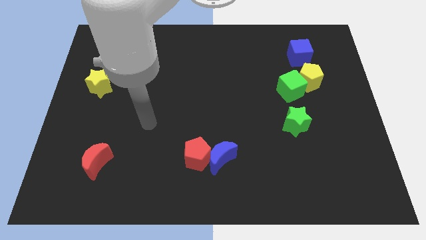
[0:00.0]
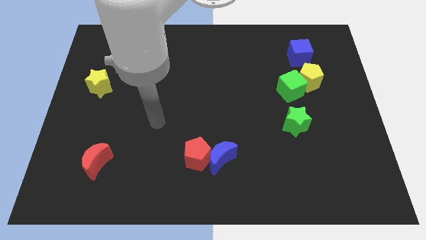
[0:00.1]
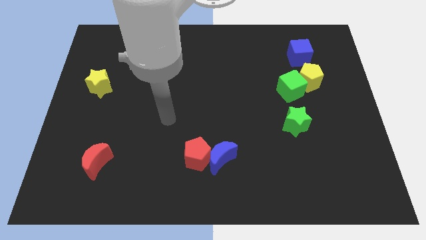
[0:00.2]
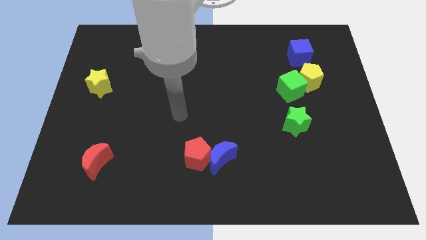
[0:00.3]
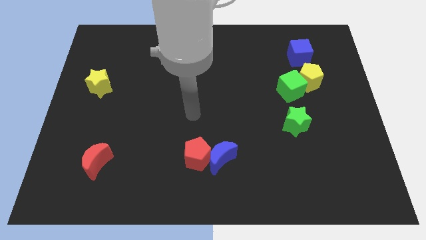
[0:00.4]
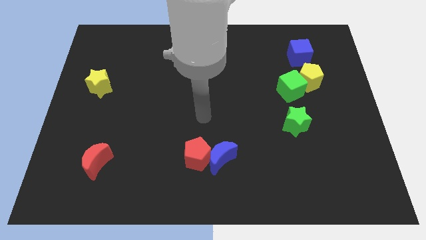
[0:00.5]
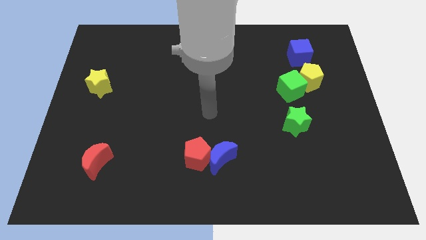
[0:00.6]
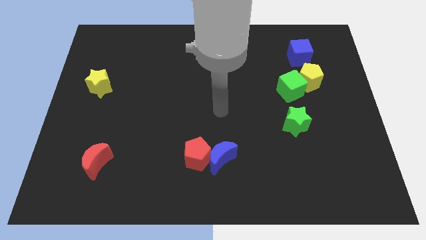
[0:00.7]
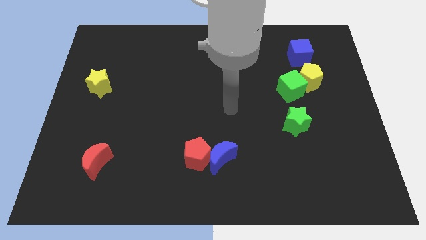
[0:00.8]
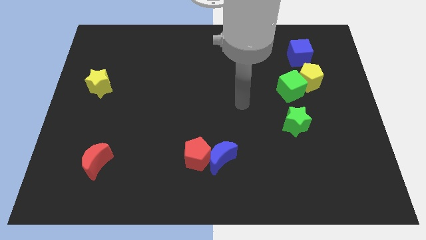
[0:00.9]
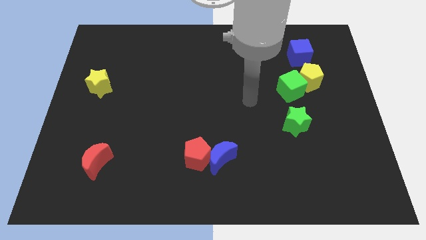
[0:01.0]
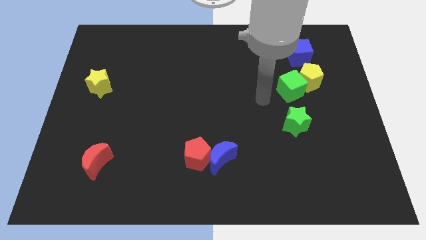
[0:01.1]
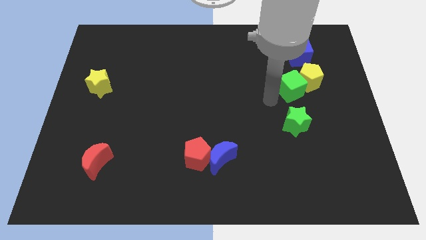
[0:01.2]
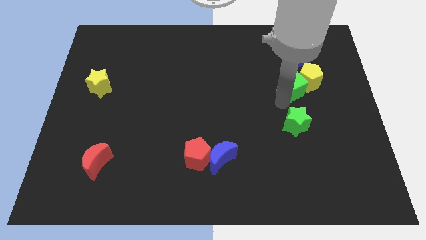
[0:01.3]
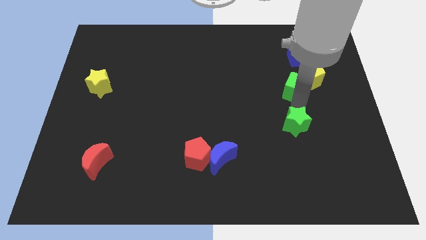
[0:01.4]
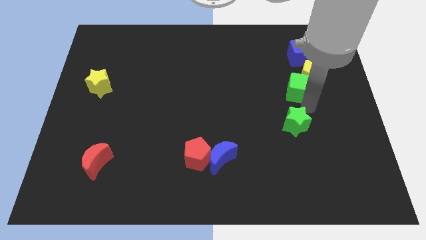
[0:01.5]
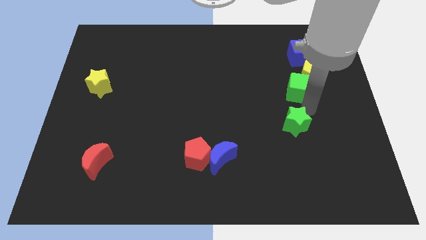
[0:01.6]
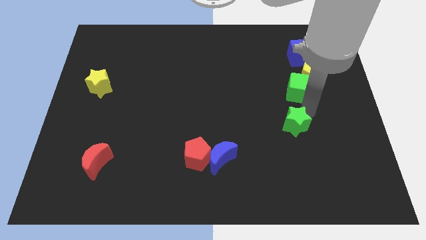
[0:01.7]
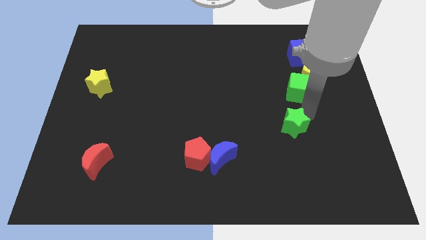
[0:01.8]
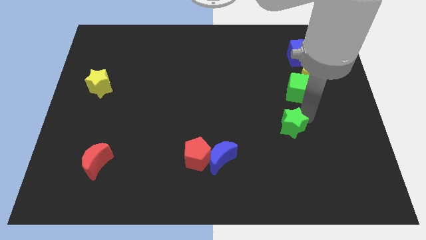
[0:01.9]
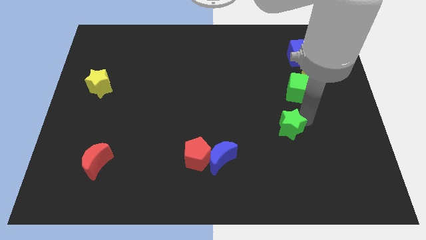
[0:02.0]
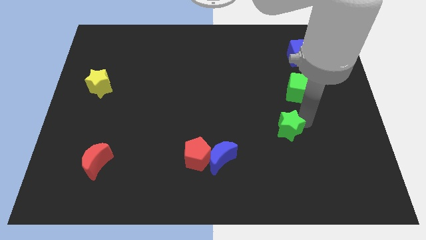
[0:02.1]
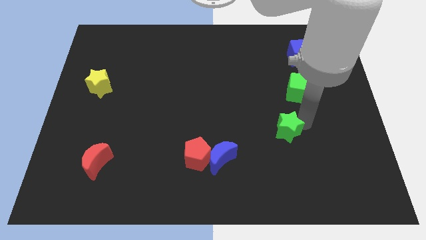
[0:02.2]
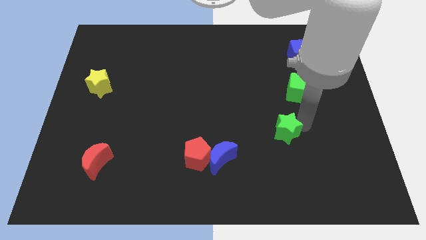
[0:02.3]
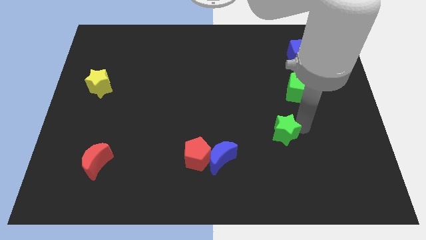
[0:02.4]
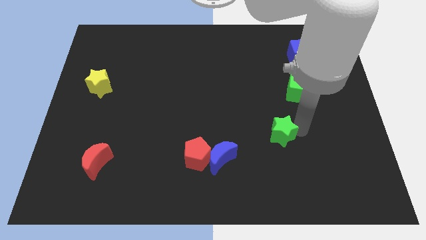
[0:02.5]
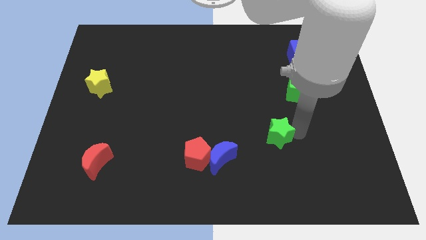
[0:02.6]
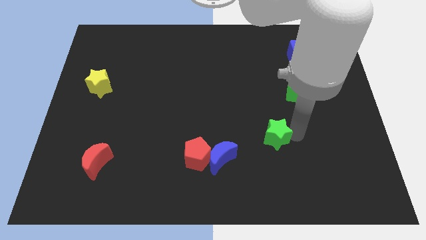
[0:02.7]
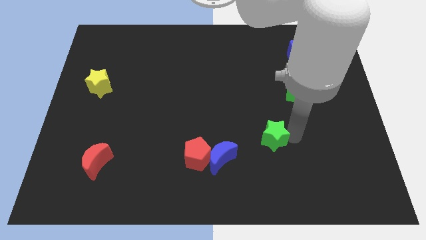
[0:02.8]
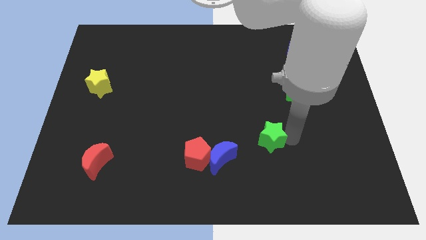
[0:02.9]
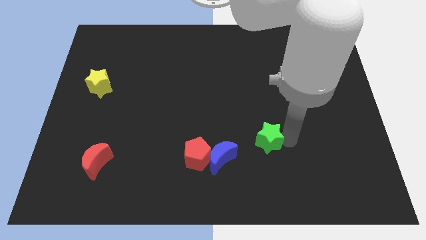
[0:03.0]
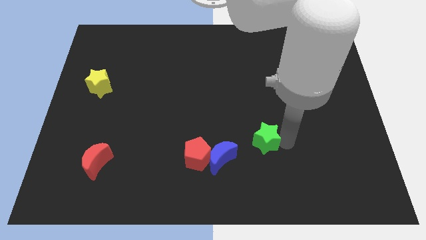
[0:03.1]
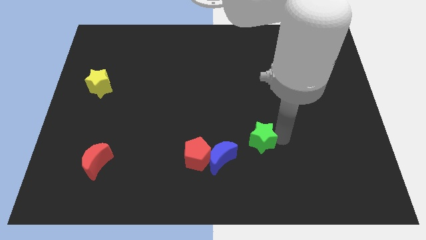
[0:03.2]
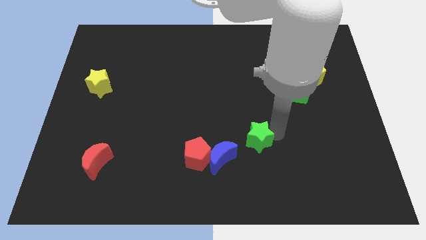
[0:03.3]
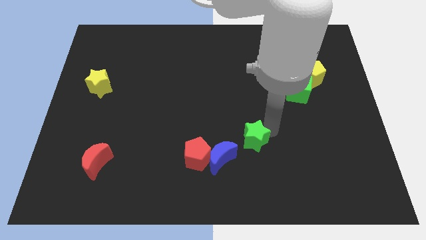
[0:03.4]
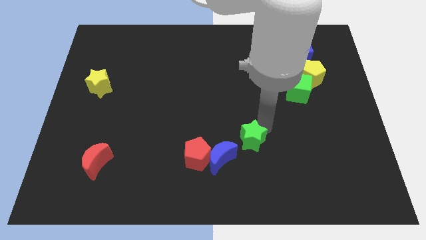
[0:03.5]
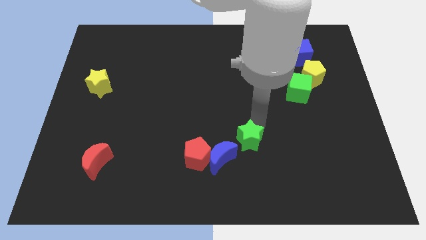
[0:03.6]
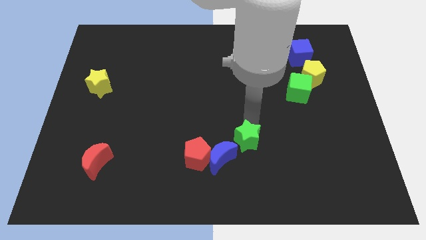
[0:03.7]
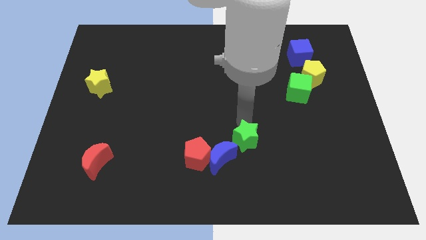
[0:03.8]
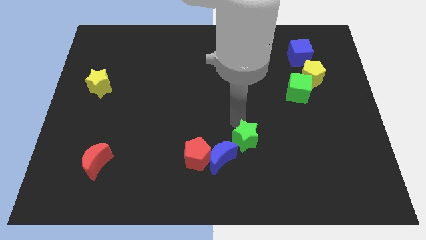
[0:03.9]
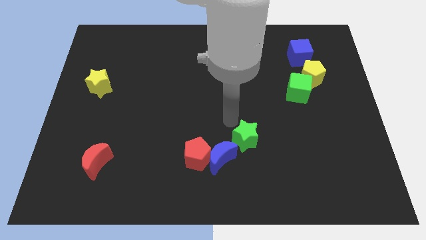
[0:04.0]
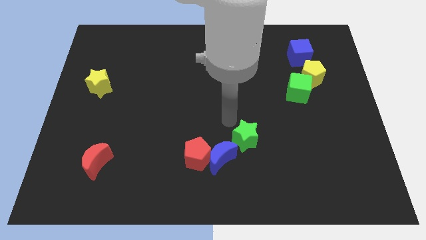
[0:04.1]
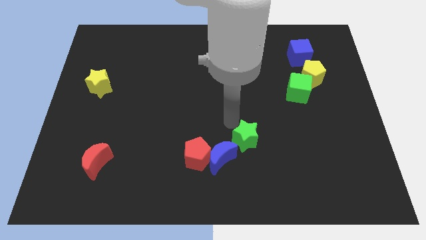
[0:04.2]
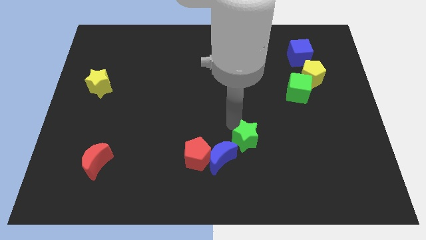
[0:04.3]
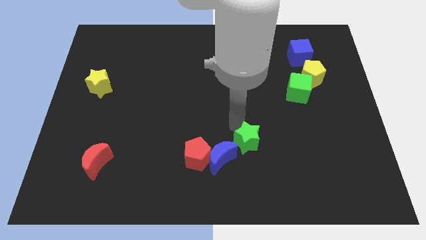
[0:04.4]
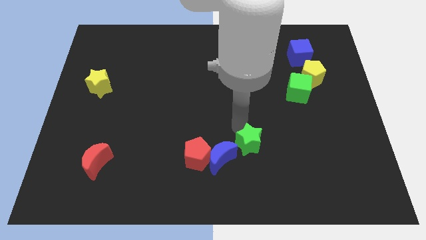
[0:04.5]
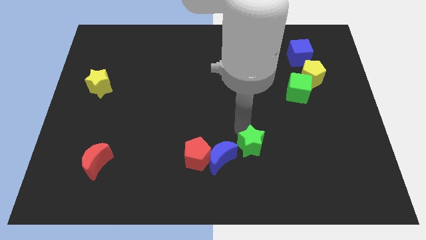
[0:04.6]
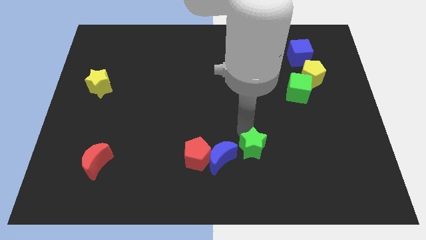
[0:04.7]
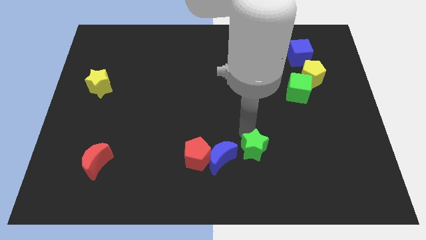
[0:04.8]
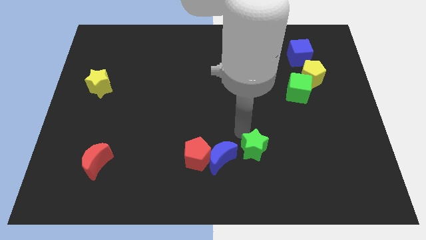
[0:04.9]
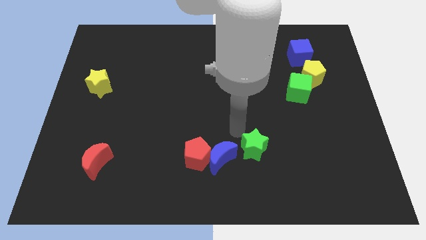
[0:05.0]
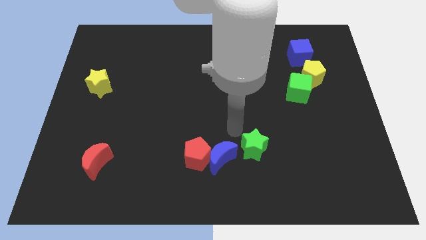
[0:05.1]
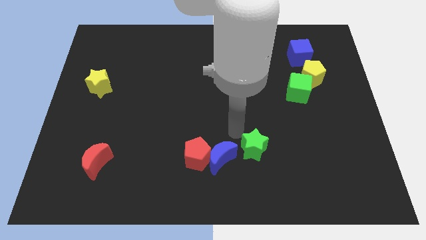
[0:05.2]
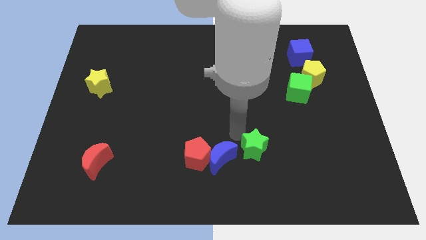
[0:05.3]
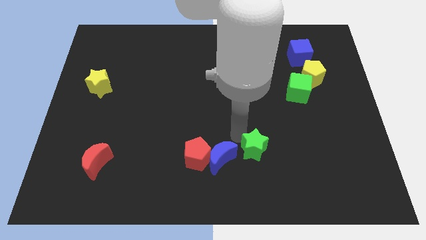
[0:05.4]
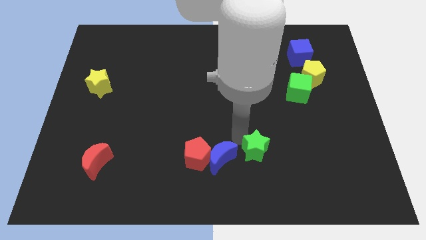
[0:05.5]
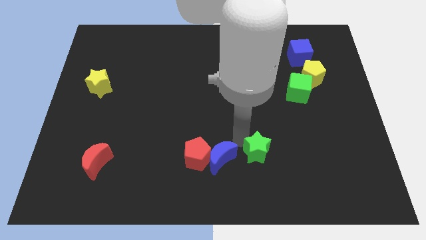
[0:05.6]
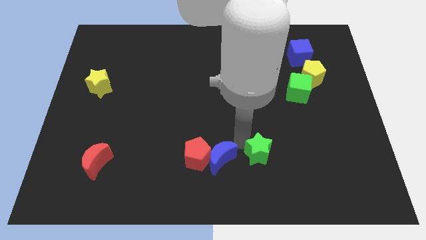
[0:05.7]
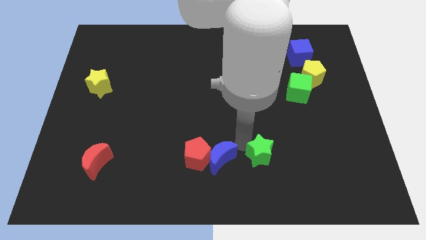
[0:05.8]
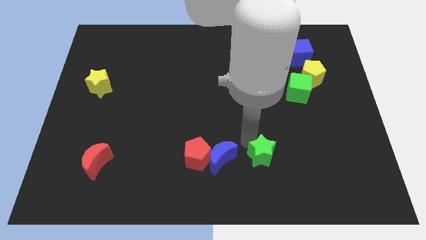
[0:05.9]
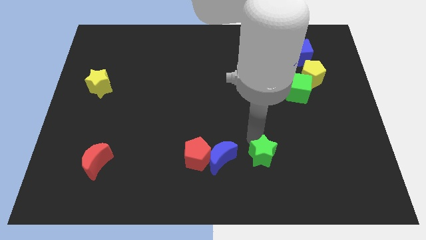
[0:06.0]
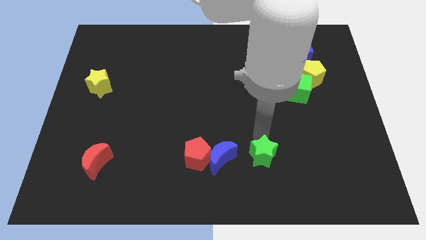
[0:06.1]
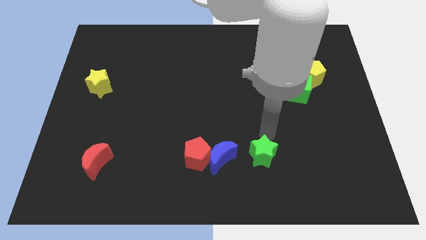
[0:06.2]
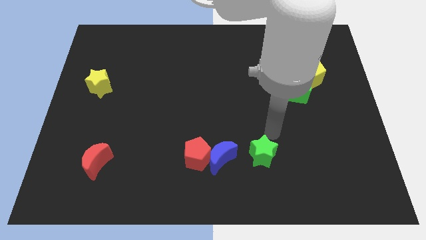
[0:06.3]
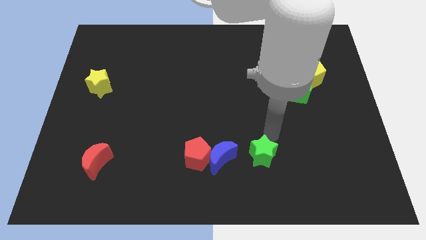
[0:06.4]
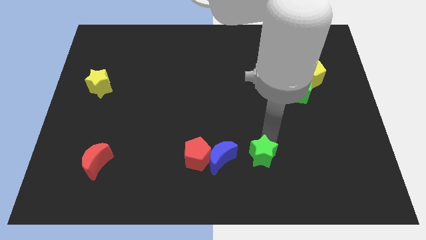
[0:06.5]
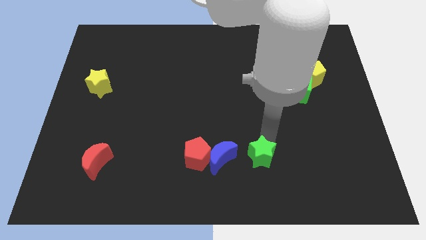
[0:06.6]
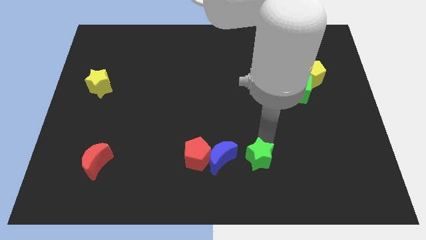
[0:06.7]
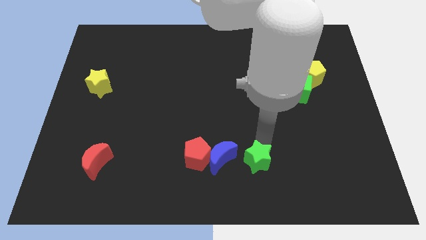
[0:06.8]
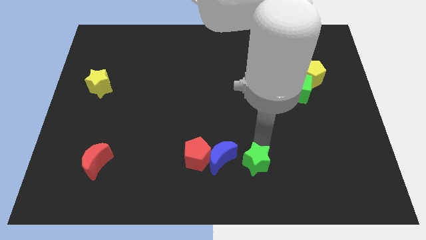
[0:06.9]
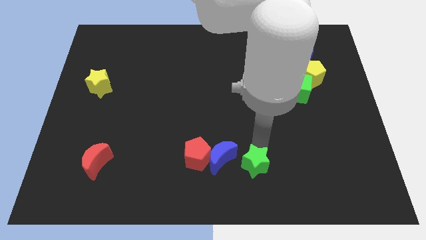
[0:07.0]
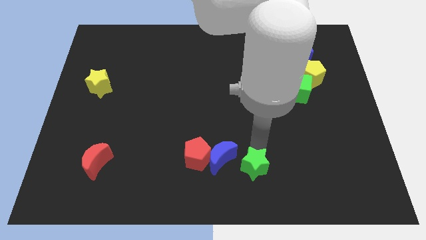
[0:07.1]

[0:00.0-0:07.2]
push the green star to the bottom
